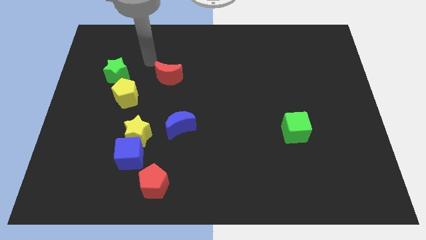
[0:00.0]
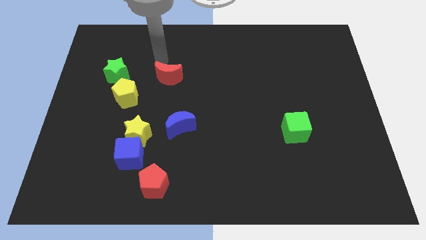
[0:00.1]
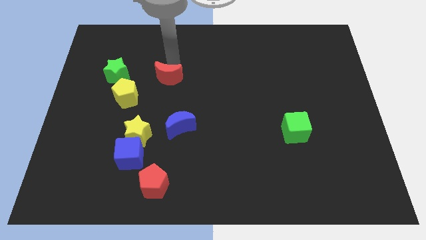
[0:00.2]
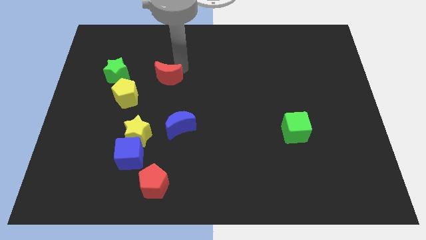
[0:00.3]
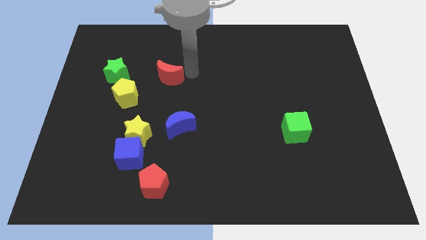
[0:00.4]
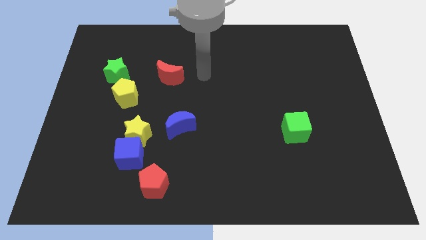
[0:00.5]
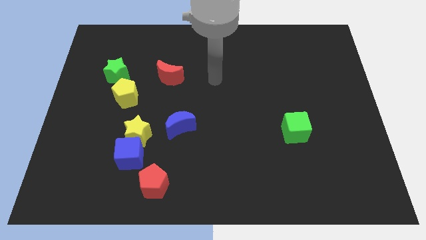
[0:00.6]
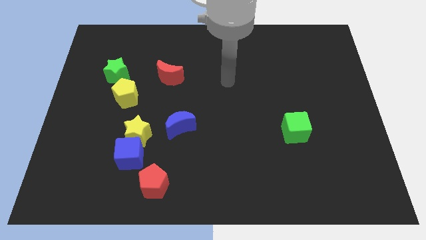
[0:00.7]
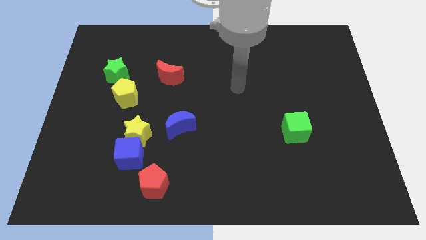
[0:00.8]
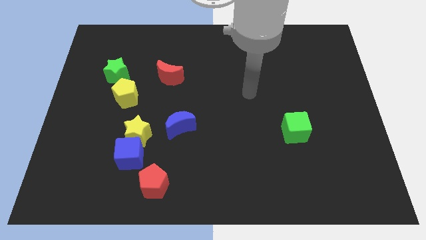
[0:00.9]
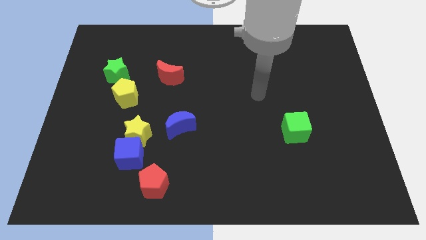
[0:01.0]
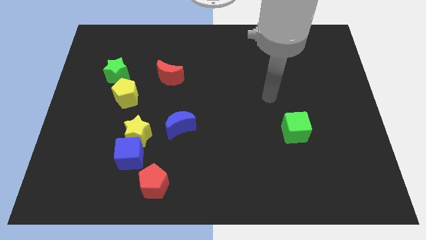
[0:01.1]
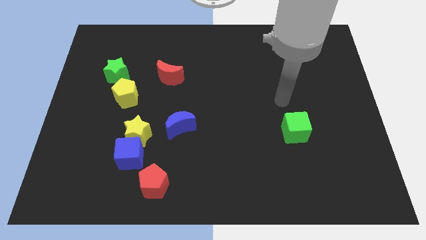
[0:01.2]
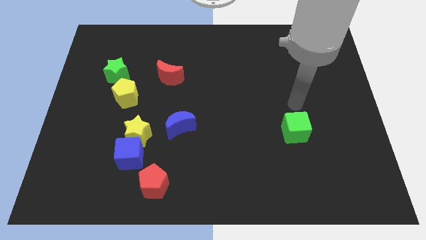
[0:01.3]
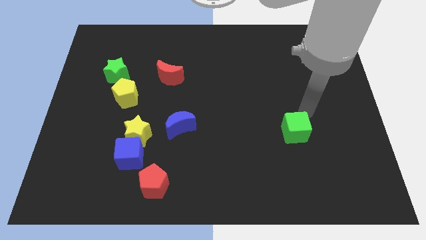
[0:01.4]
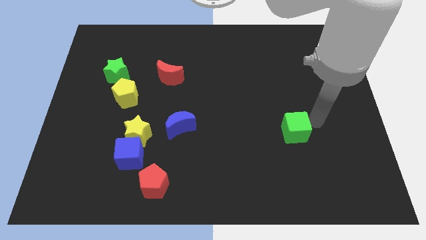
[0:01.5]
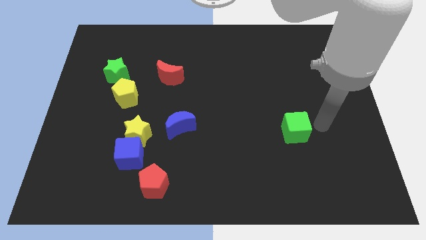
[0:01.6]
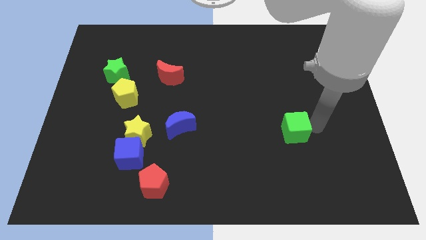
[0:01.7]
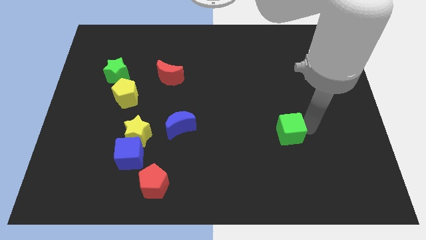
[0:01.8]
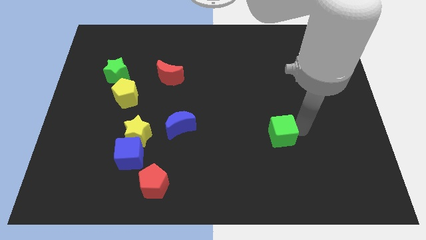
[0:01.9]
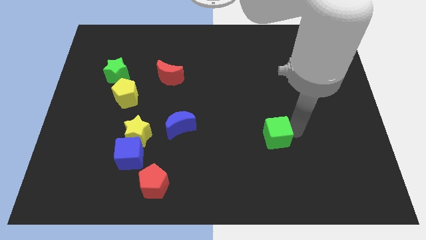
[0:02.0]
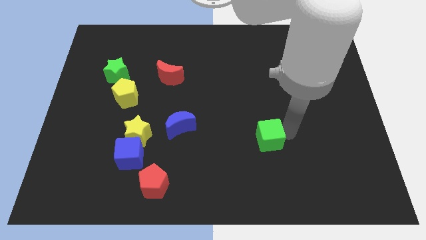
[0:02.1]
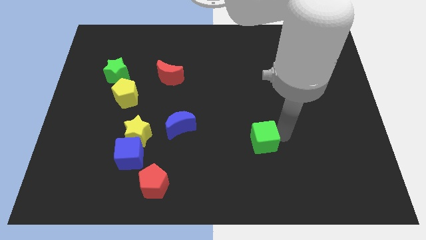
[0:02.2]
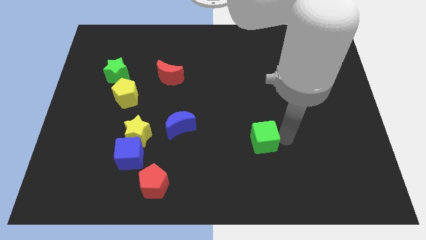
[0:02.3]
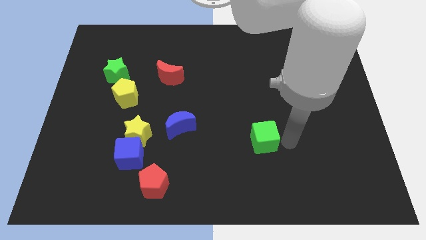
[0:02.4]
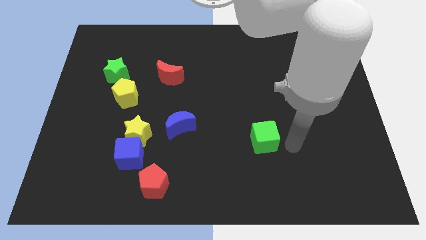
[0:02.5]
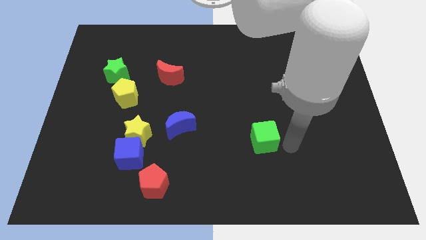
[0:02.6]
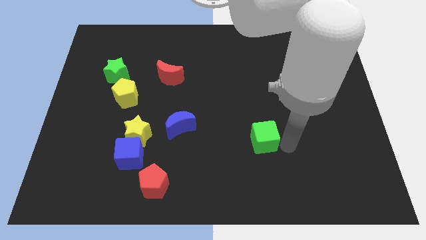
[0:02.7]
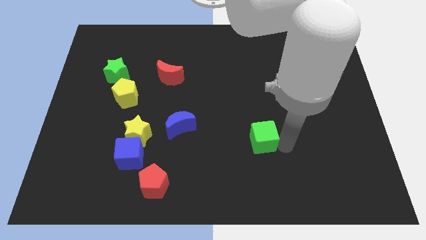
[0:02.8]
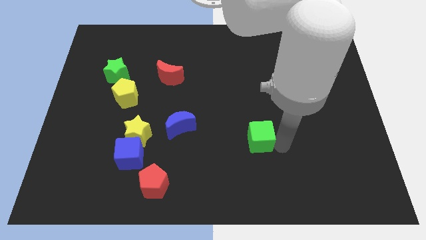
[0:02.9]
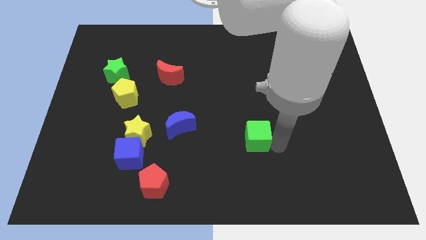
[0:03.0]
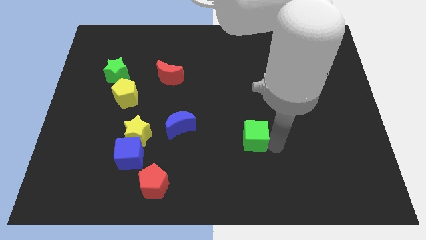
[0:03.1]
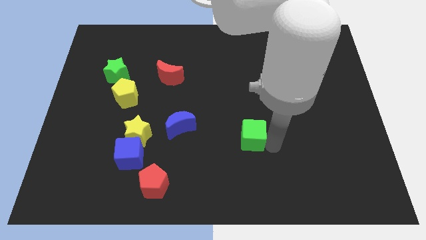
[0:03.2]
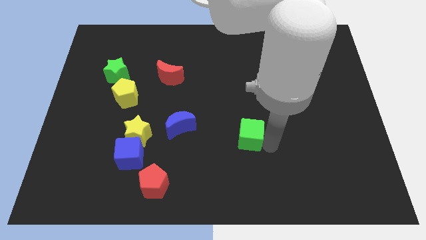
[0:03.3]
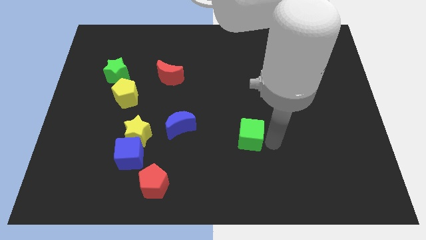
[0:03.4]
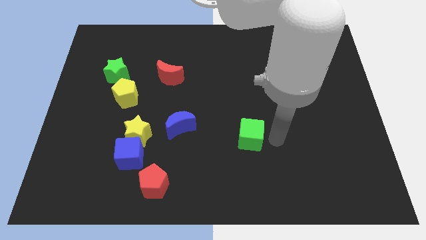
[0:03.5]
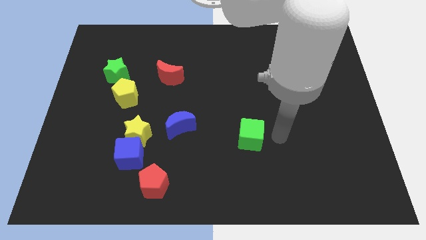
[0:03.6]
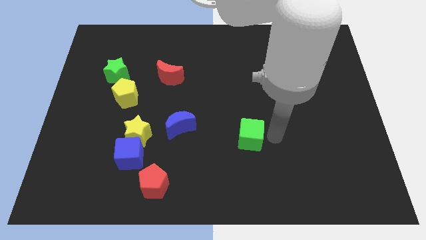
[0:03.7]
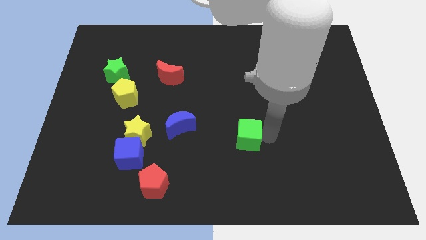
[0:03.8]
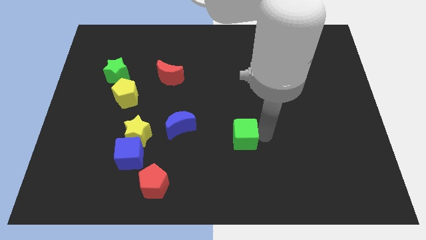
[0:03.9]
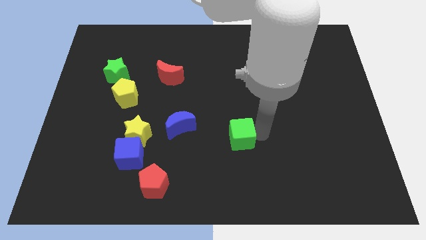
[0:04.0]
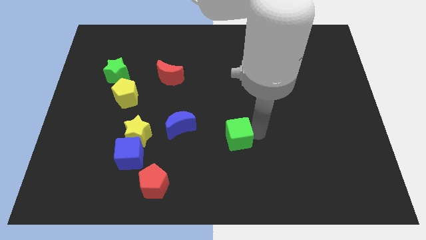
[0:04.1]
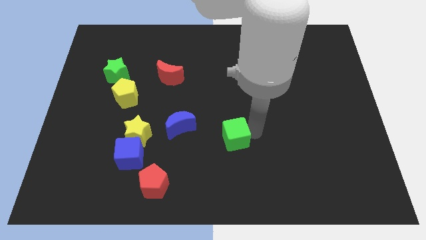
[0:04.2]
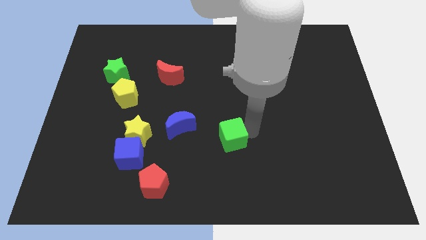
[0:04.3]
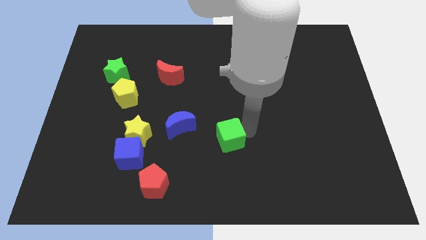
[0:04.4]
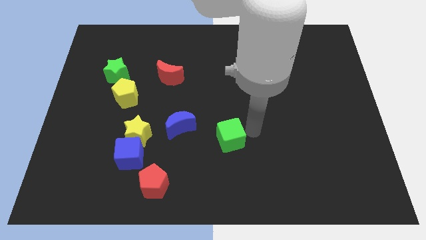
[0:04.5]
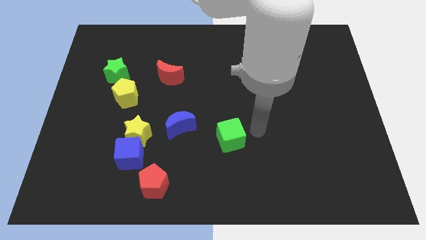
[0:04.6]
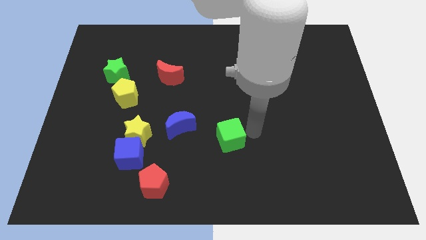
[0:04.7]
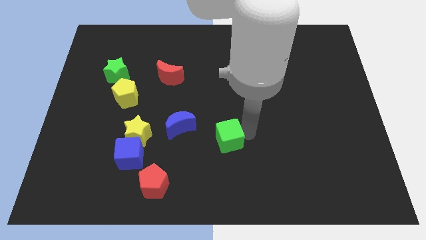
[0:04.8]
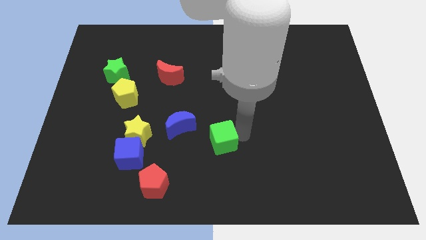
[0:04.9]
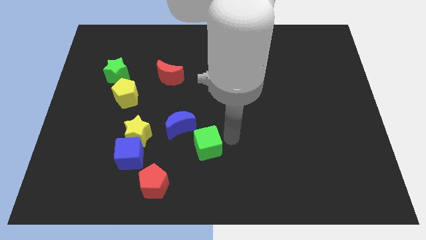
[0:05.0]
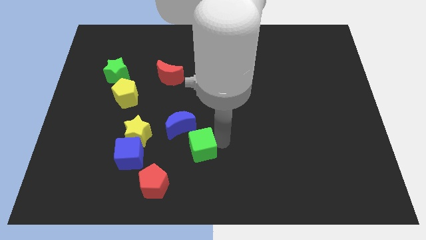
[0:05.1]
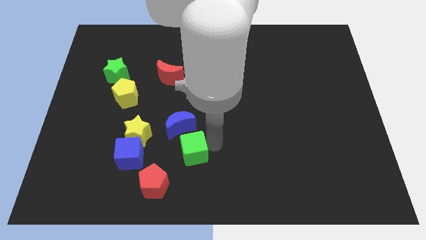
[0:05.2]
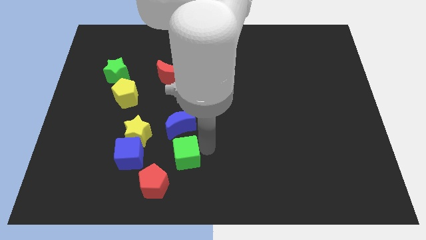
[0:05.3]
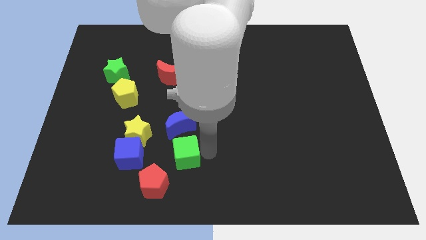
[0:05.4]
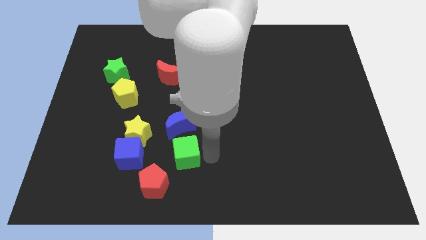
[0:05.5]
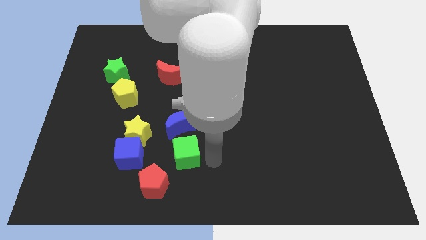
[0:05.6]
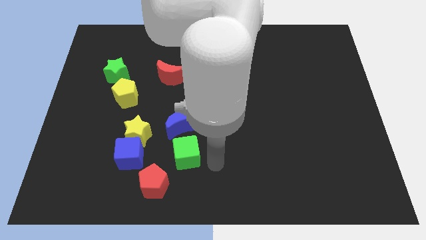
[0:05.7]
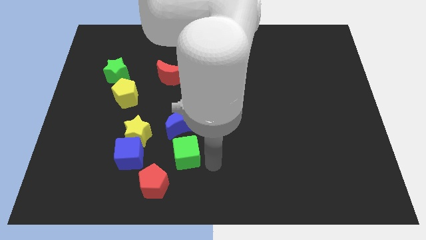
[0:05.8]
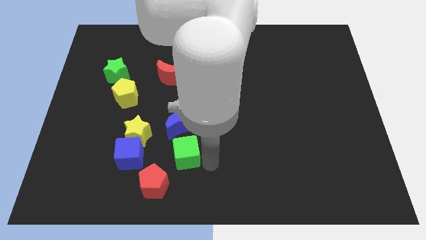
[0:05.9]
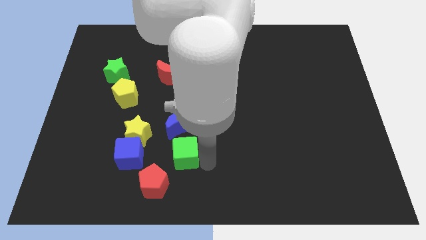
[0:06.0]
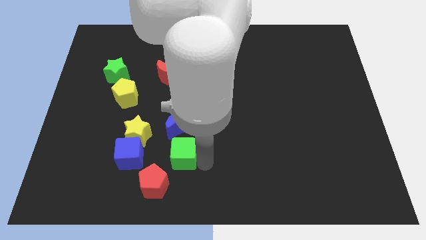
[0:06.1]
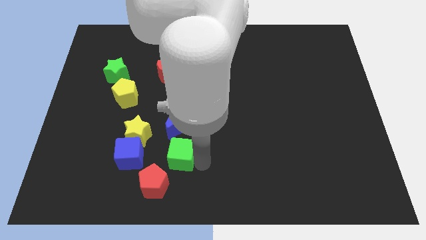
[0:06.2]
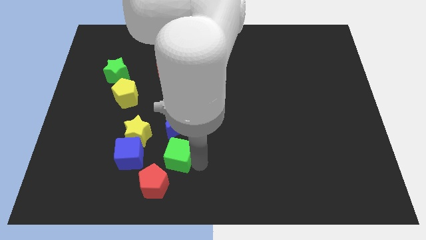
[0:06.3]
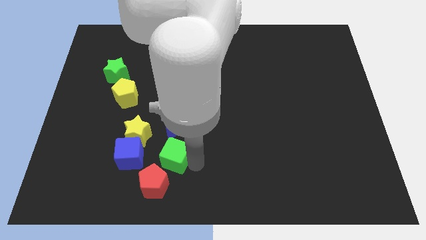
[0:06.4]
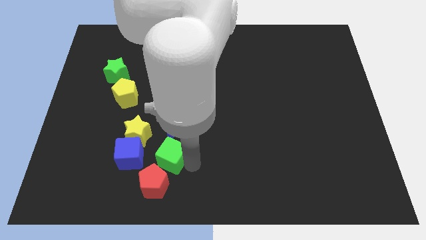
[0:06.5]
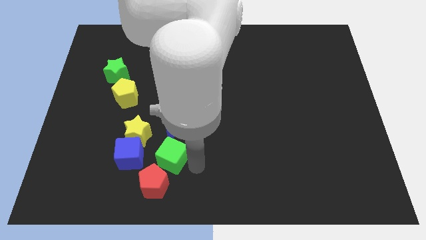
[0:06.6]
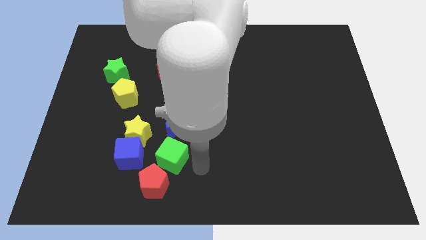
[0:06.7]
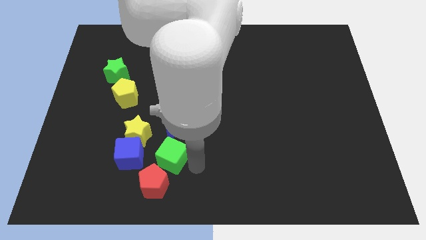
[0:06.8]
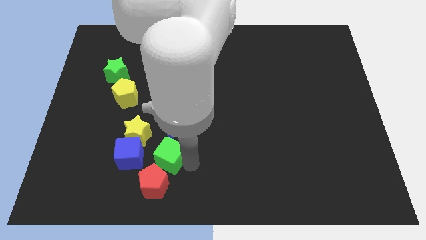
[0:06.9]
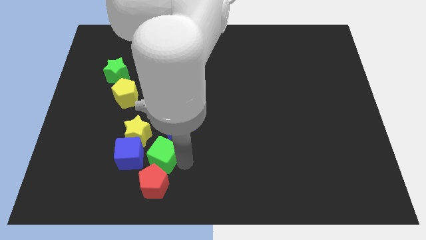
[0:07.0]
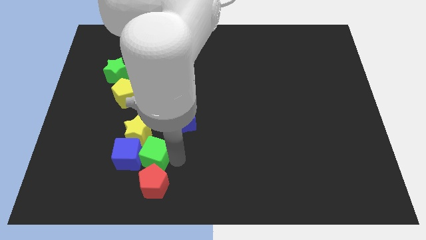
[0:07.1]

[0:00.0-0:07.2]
slide the green cube next to the blue cube
